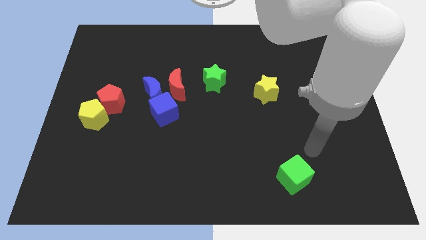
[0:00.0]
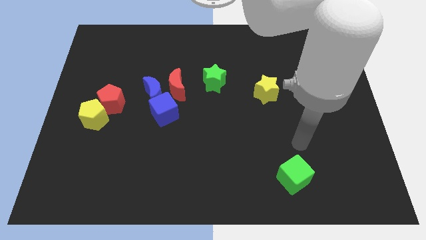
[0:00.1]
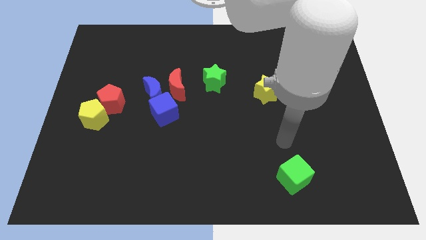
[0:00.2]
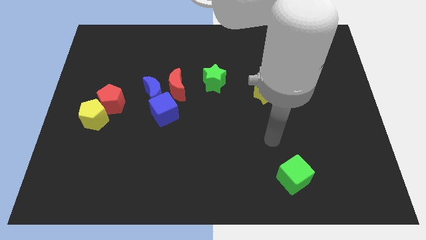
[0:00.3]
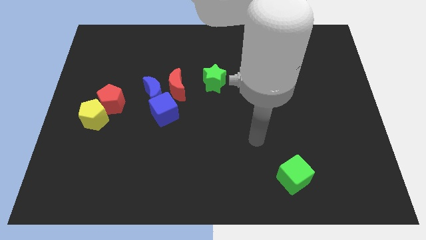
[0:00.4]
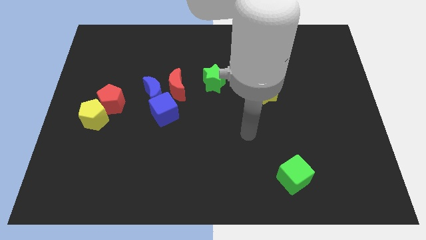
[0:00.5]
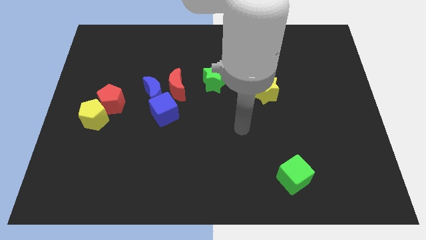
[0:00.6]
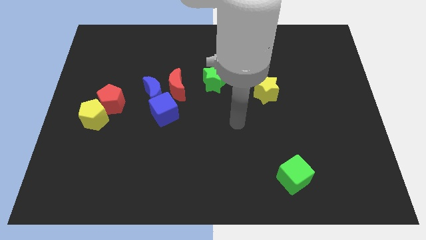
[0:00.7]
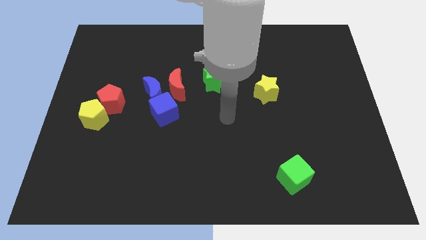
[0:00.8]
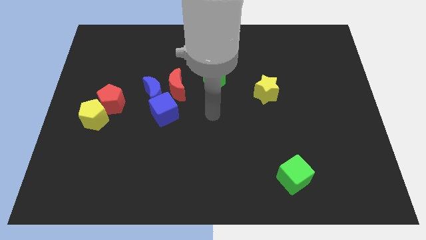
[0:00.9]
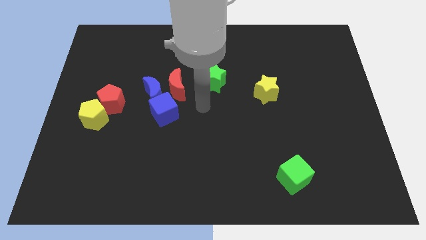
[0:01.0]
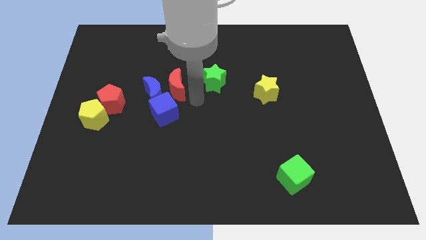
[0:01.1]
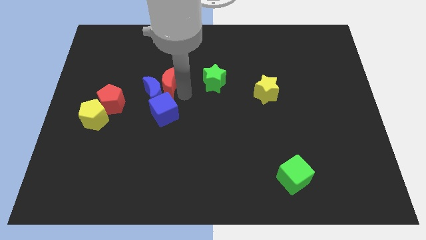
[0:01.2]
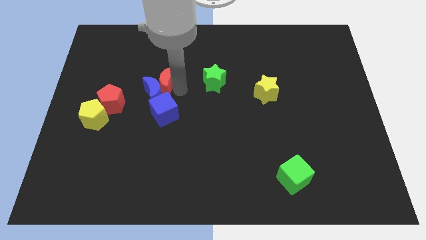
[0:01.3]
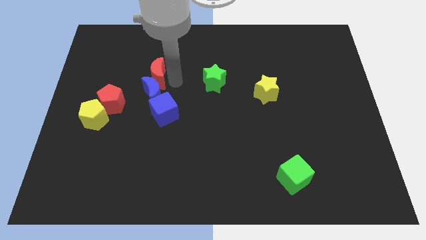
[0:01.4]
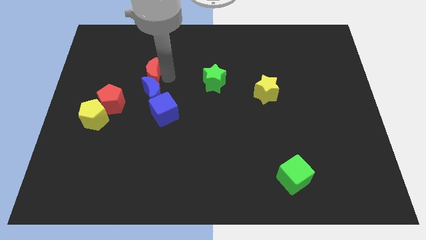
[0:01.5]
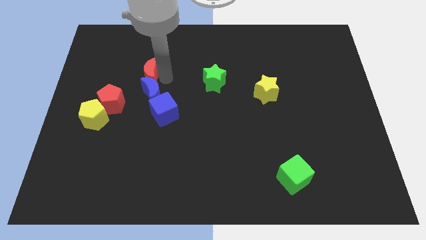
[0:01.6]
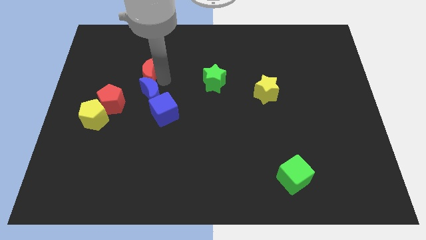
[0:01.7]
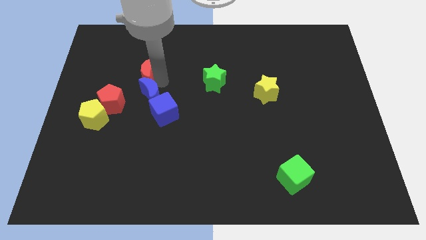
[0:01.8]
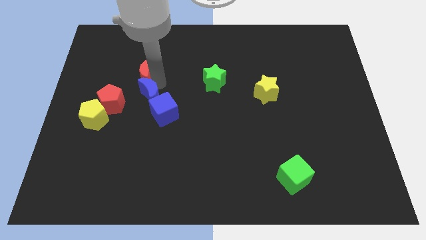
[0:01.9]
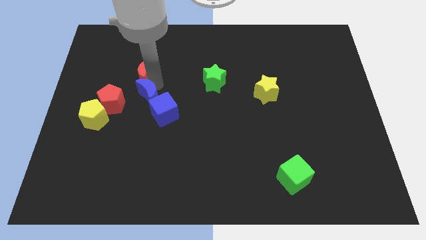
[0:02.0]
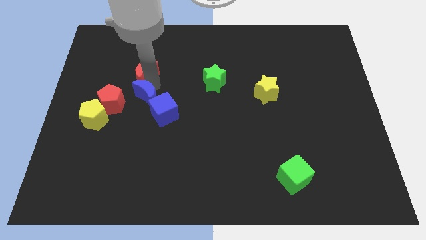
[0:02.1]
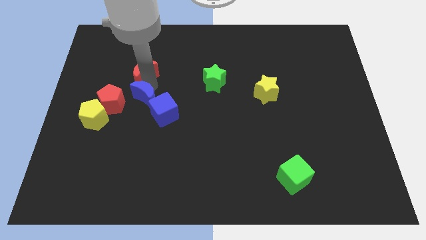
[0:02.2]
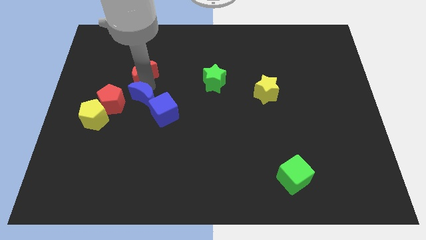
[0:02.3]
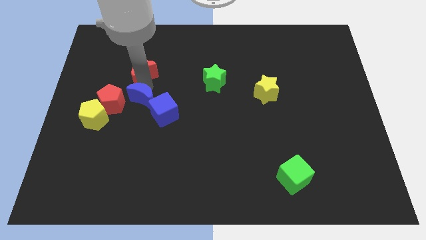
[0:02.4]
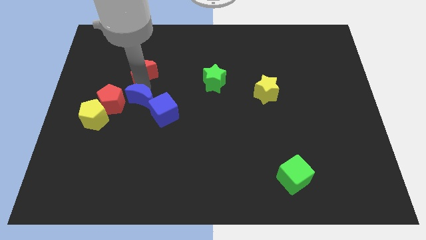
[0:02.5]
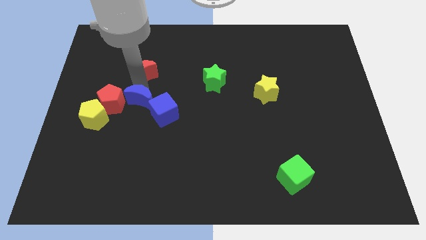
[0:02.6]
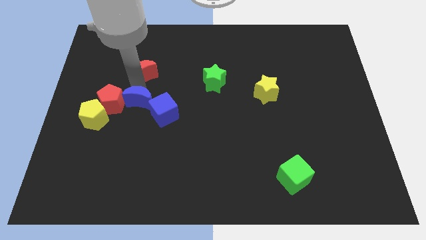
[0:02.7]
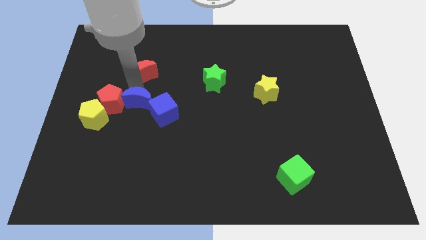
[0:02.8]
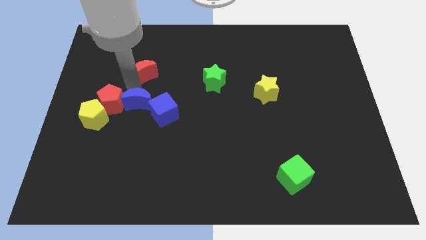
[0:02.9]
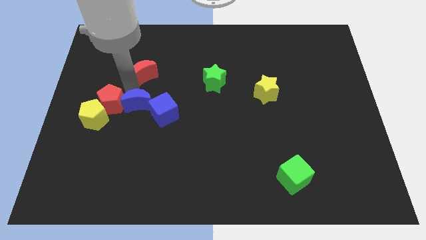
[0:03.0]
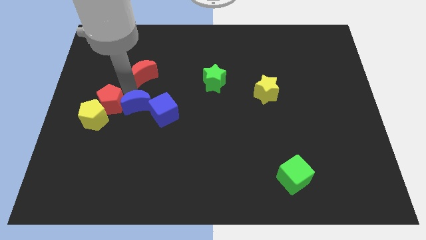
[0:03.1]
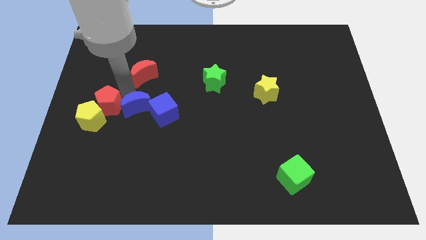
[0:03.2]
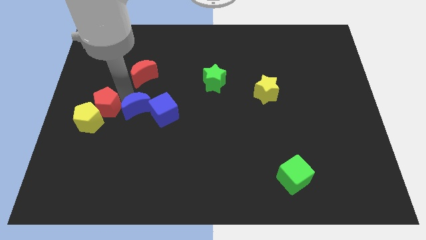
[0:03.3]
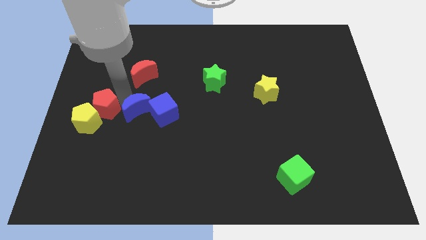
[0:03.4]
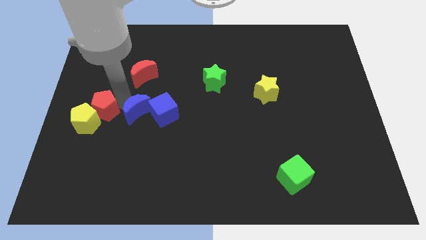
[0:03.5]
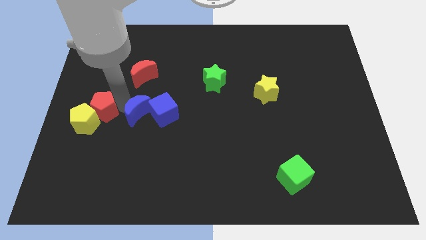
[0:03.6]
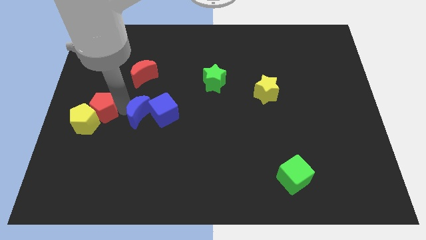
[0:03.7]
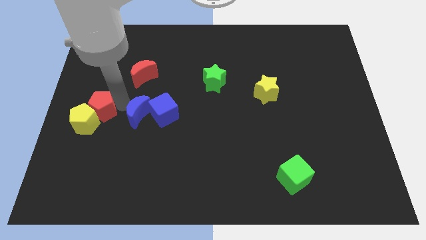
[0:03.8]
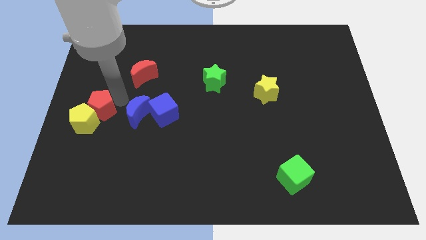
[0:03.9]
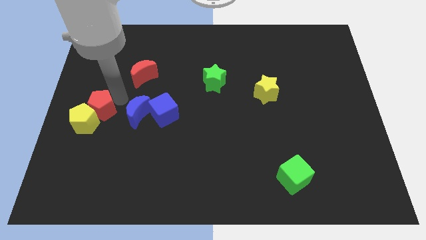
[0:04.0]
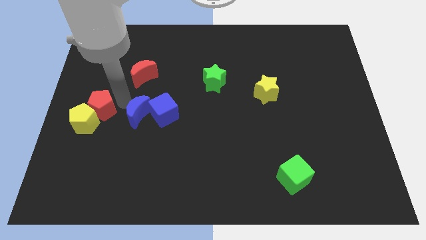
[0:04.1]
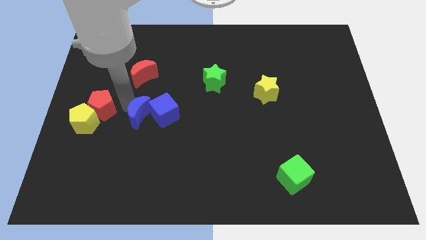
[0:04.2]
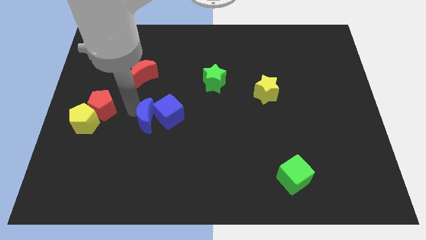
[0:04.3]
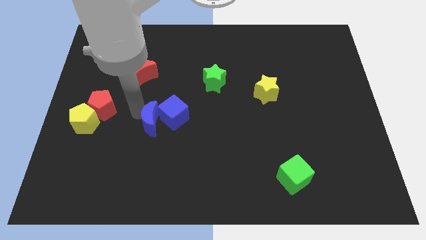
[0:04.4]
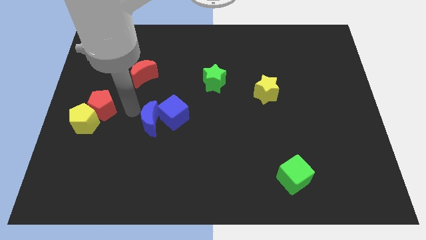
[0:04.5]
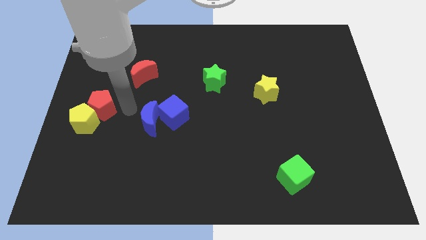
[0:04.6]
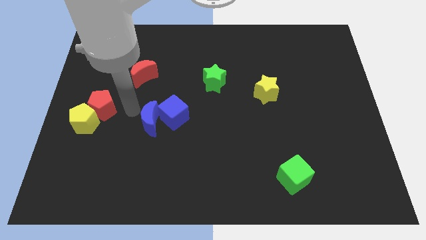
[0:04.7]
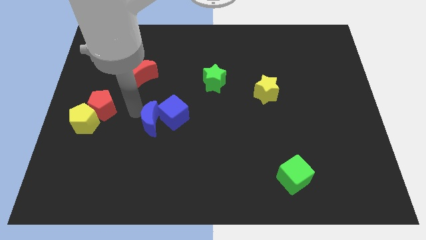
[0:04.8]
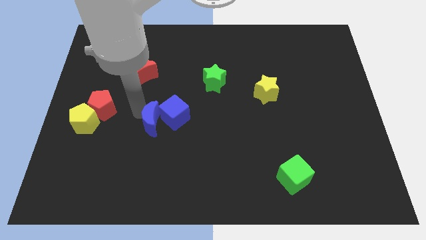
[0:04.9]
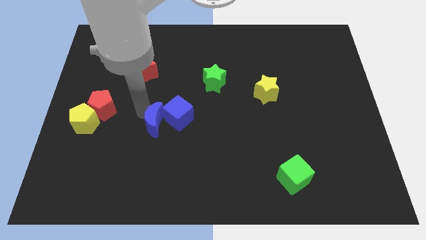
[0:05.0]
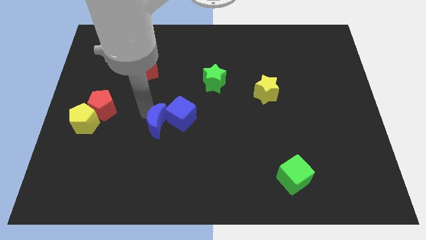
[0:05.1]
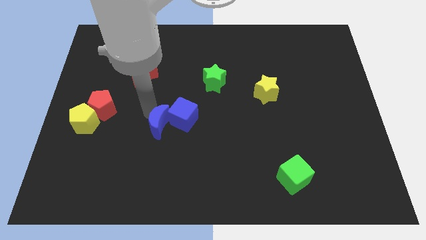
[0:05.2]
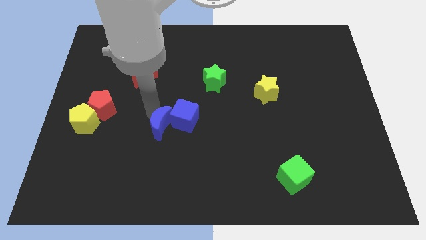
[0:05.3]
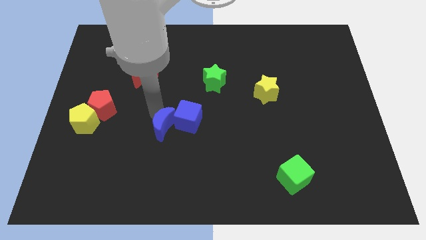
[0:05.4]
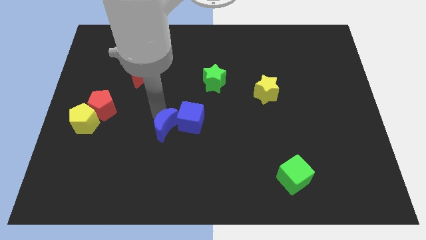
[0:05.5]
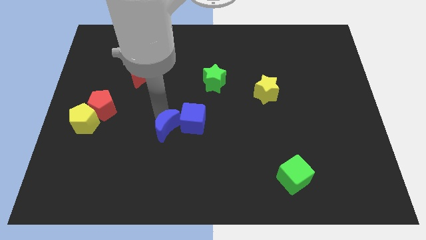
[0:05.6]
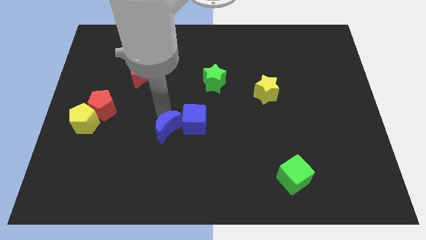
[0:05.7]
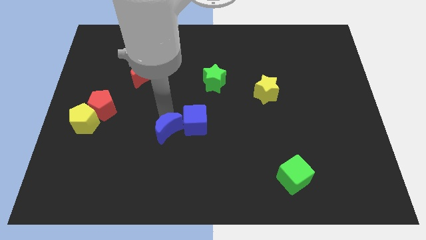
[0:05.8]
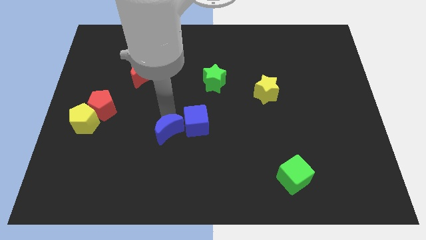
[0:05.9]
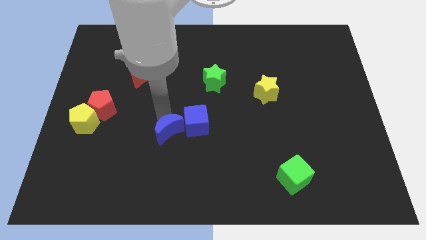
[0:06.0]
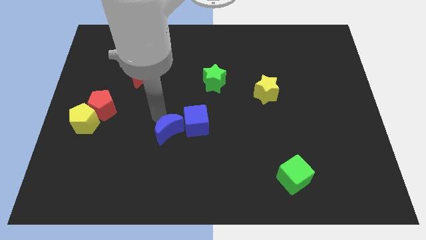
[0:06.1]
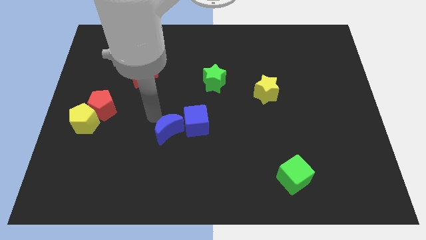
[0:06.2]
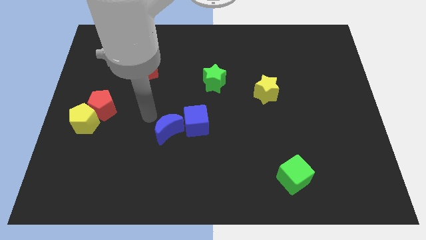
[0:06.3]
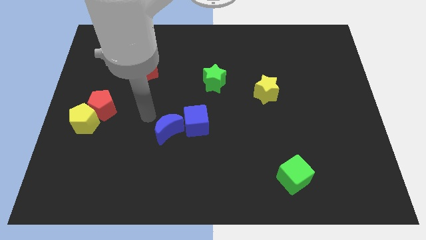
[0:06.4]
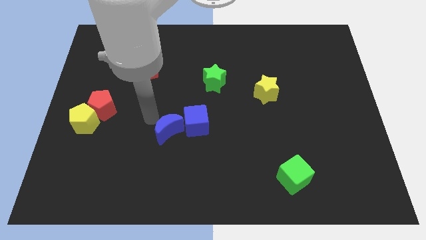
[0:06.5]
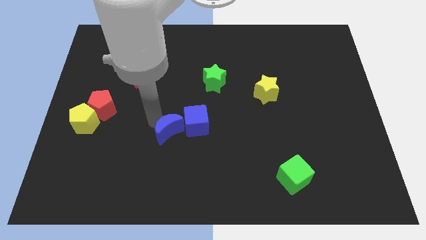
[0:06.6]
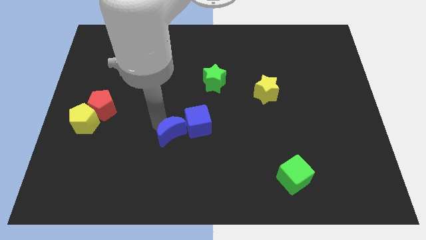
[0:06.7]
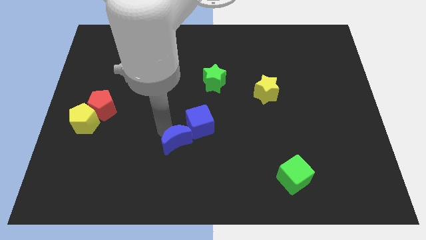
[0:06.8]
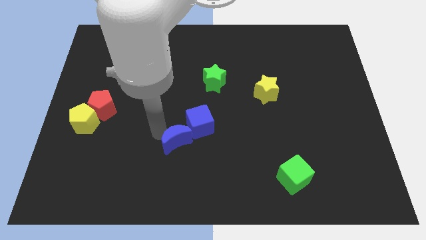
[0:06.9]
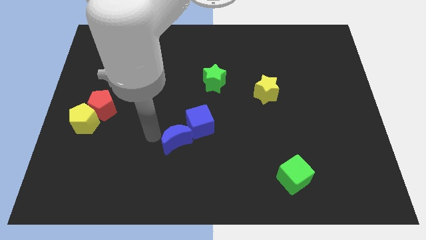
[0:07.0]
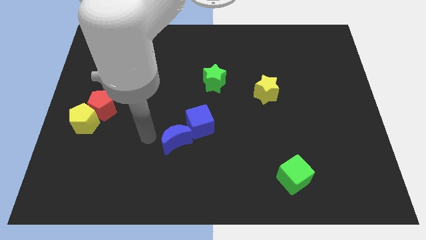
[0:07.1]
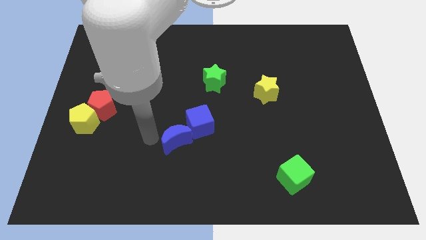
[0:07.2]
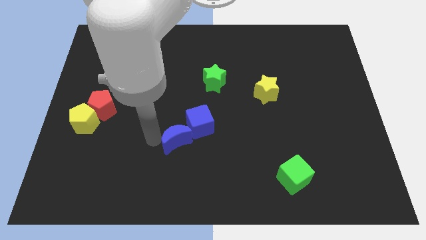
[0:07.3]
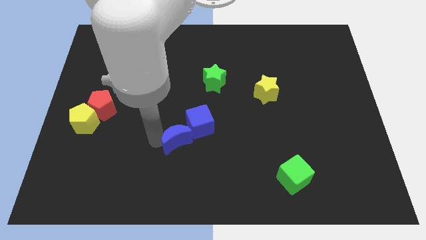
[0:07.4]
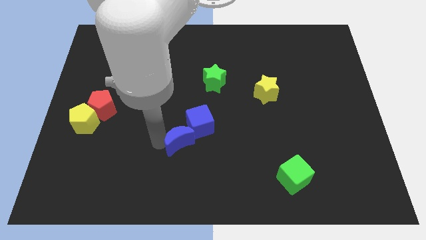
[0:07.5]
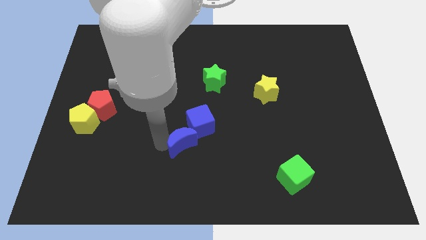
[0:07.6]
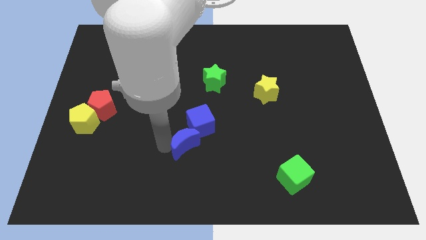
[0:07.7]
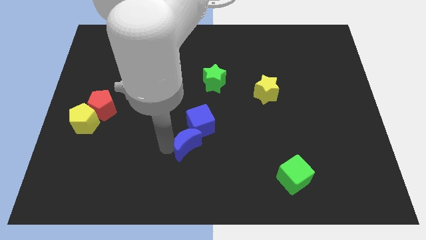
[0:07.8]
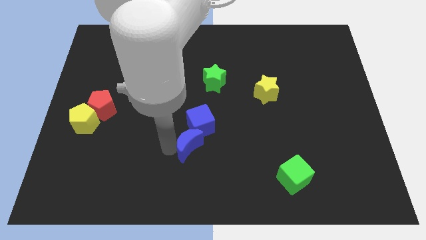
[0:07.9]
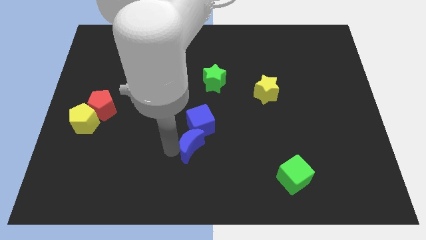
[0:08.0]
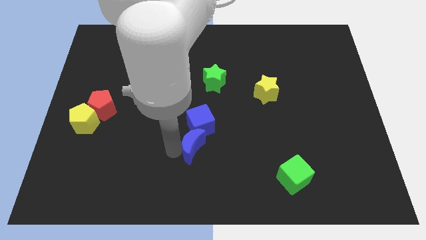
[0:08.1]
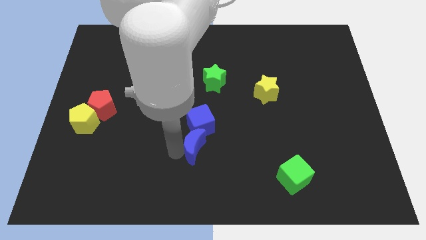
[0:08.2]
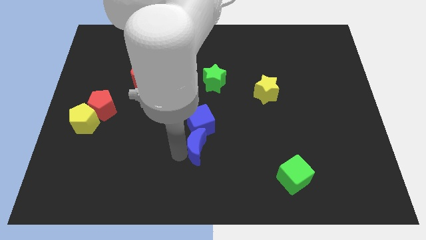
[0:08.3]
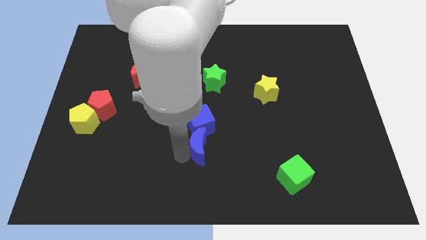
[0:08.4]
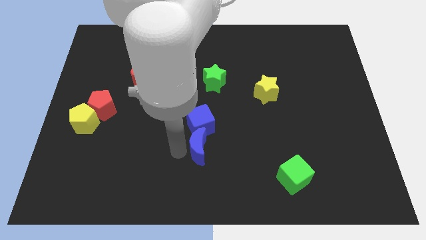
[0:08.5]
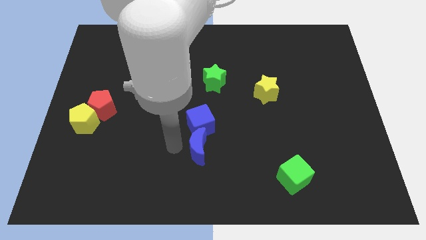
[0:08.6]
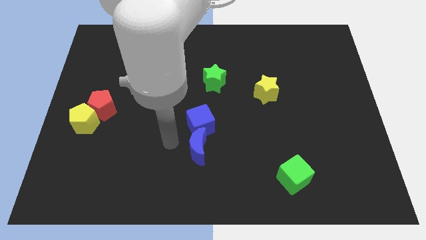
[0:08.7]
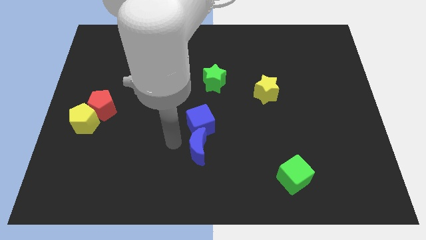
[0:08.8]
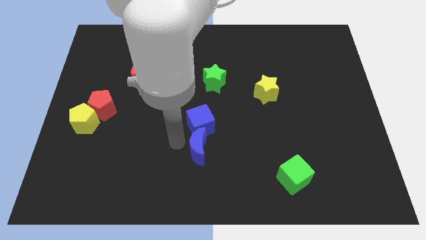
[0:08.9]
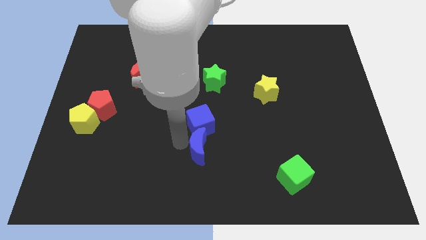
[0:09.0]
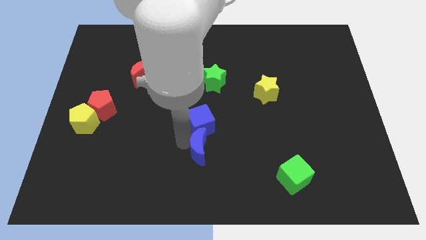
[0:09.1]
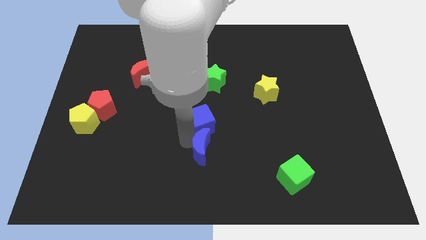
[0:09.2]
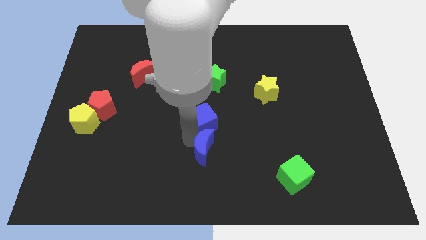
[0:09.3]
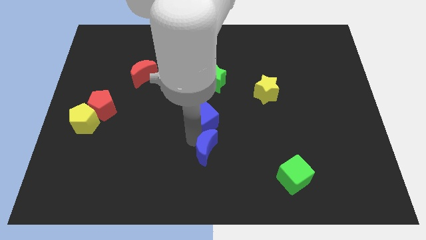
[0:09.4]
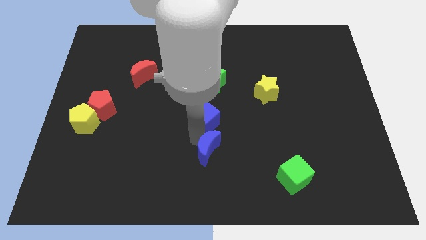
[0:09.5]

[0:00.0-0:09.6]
slide the blue moon diagonally downwards and right
